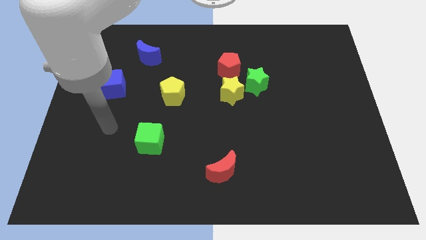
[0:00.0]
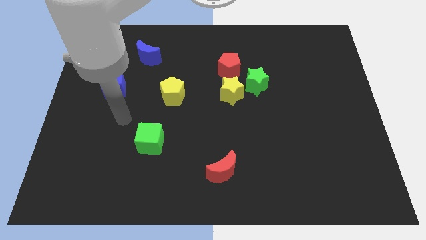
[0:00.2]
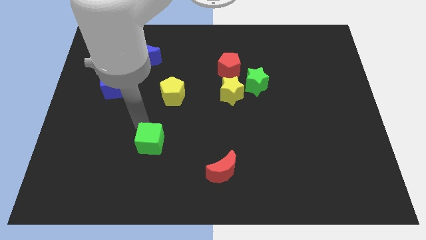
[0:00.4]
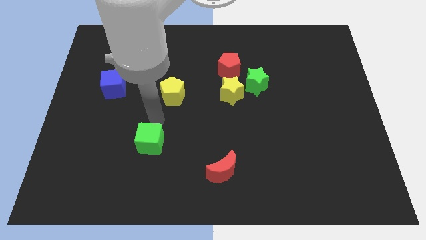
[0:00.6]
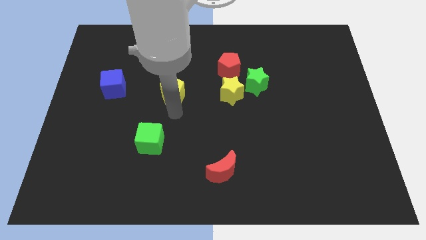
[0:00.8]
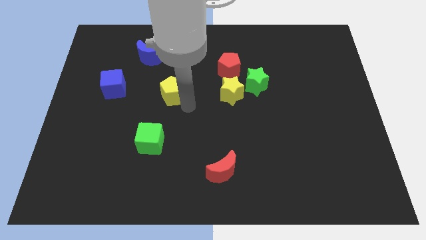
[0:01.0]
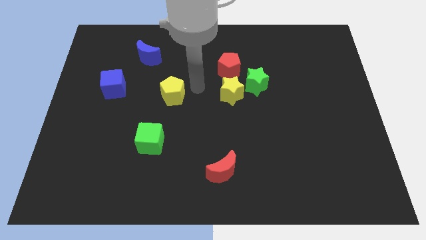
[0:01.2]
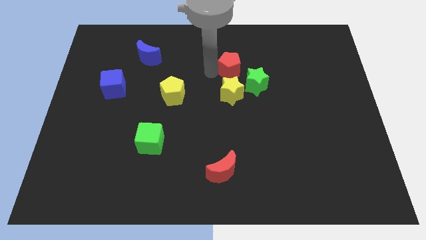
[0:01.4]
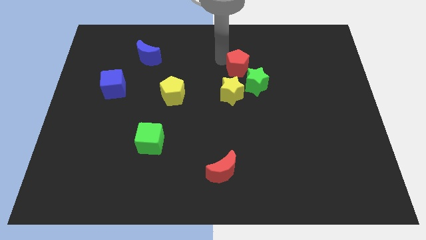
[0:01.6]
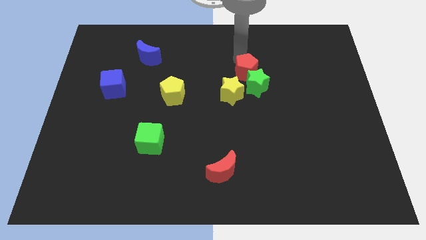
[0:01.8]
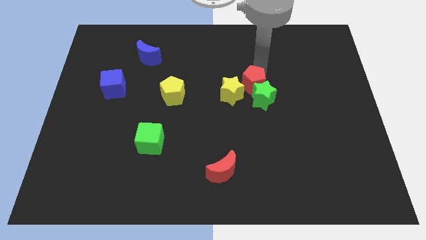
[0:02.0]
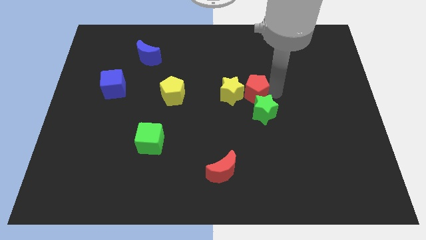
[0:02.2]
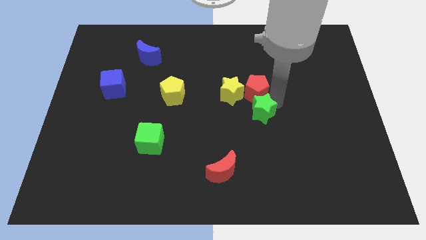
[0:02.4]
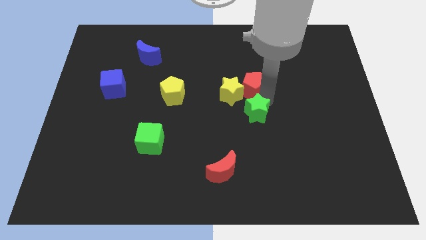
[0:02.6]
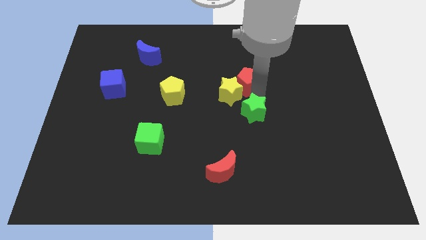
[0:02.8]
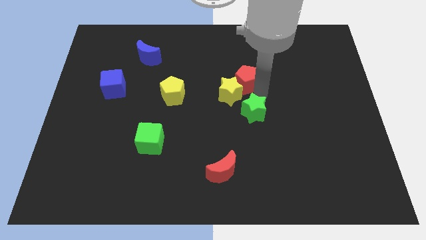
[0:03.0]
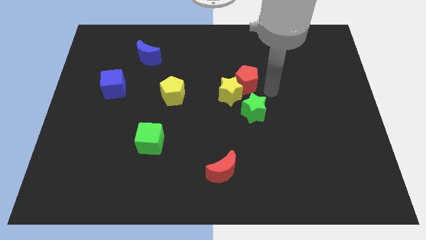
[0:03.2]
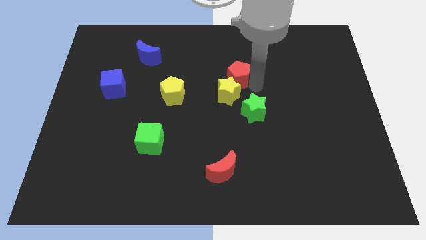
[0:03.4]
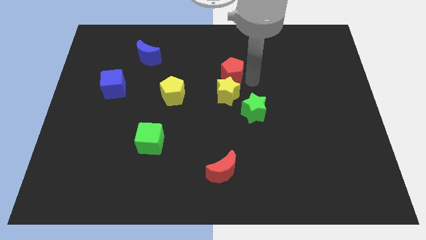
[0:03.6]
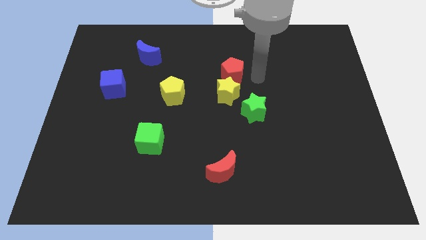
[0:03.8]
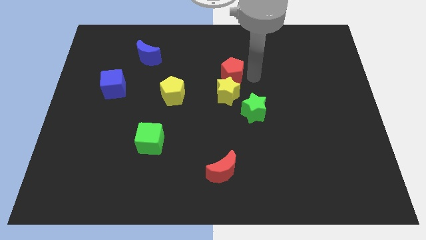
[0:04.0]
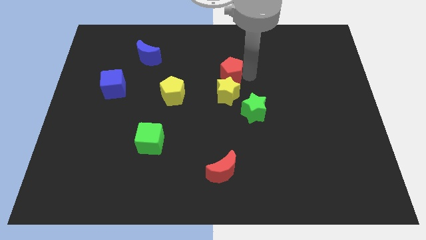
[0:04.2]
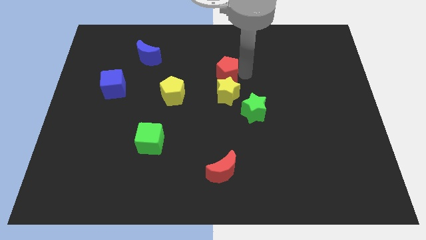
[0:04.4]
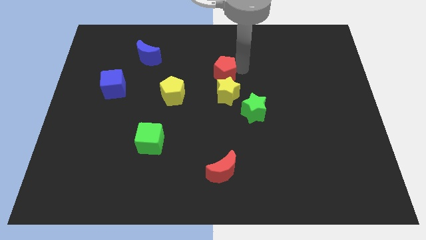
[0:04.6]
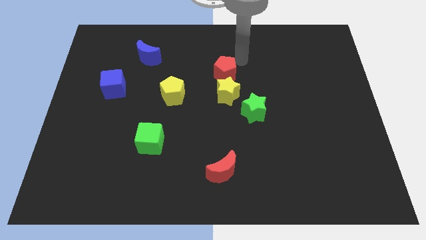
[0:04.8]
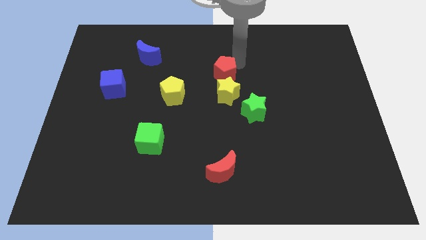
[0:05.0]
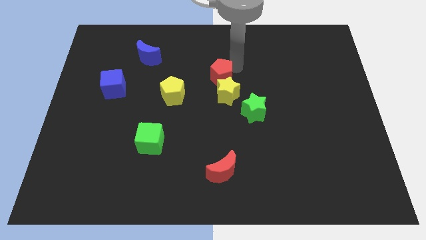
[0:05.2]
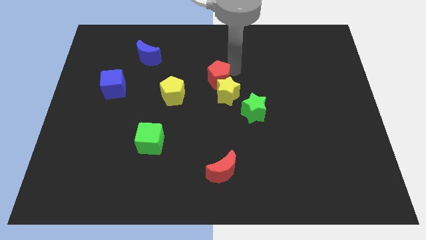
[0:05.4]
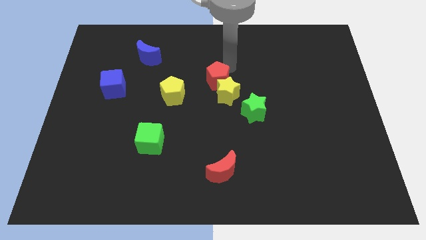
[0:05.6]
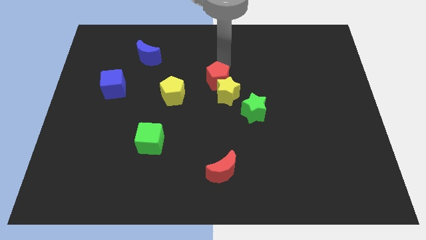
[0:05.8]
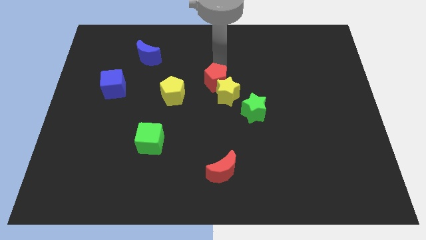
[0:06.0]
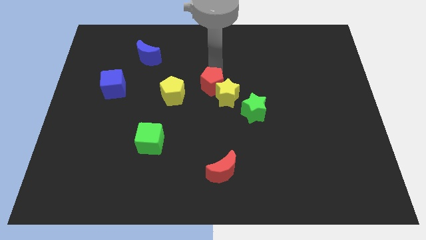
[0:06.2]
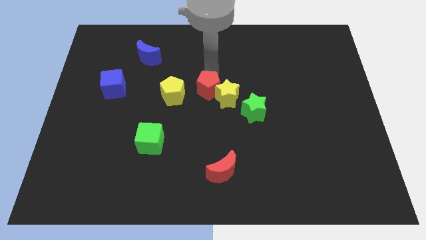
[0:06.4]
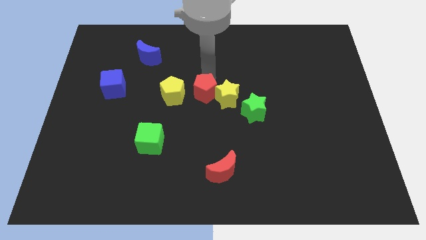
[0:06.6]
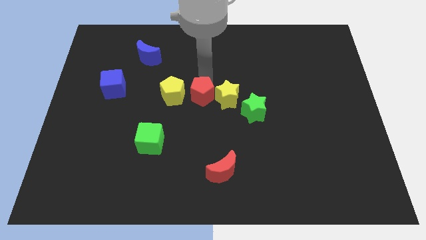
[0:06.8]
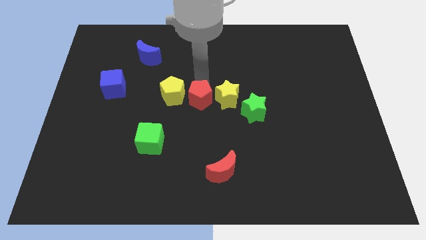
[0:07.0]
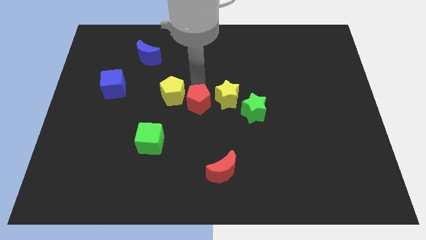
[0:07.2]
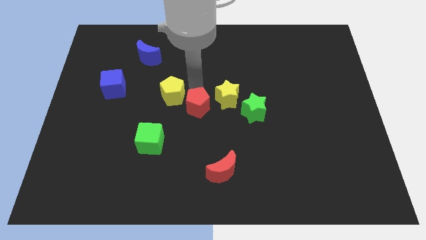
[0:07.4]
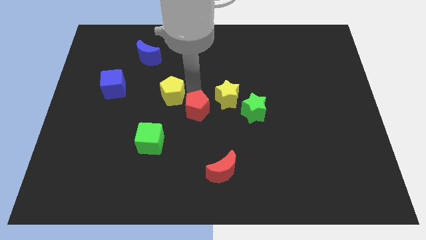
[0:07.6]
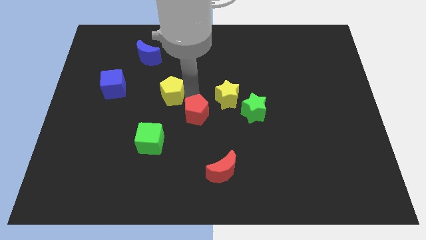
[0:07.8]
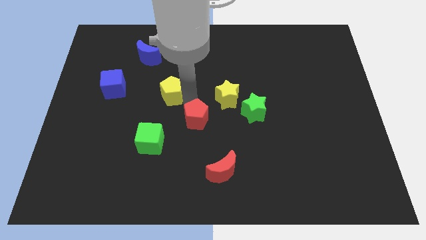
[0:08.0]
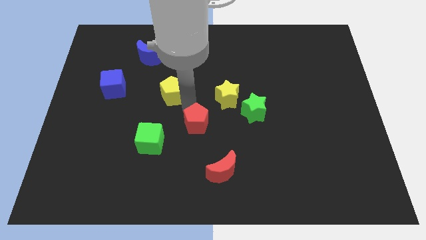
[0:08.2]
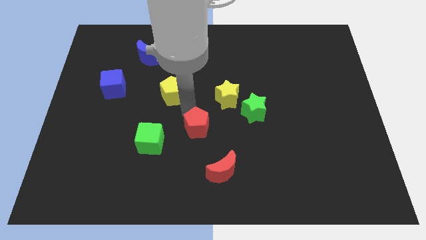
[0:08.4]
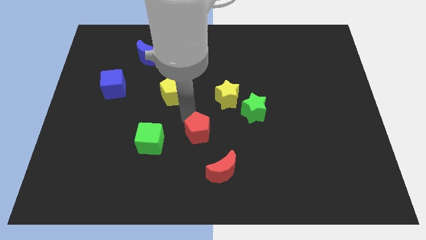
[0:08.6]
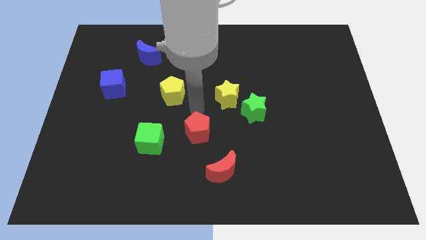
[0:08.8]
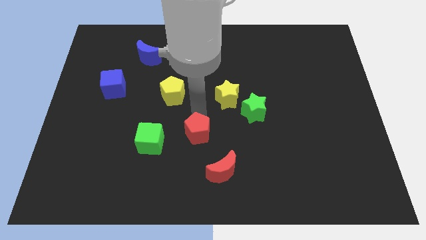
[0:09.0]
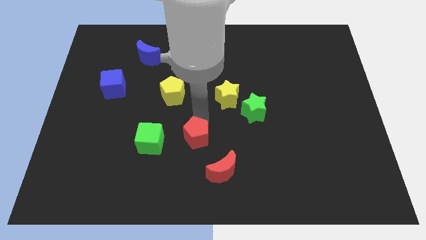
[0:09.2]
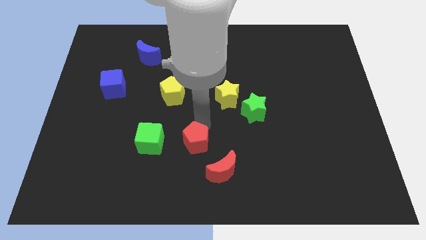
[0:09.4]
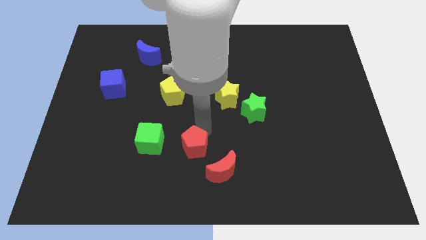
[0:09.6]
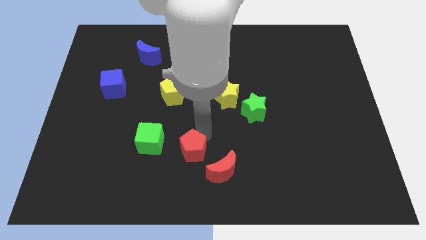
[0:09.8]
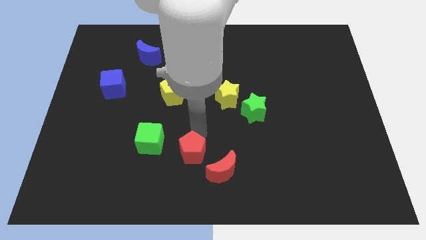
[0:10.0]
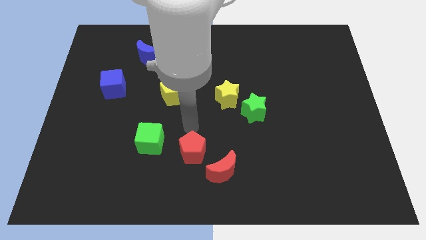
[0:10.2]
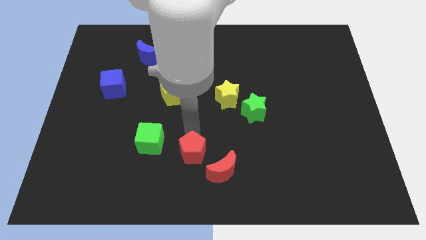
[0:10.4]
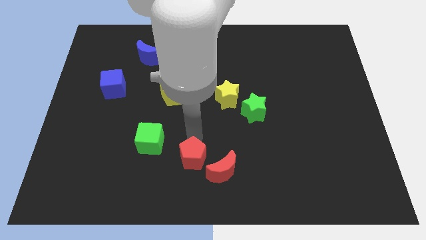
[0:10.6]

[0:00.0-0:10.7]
slide the red pentagon to the bottom side
